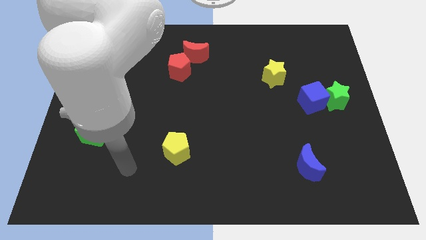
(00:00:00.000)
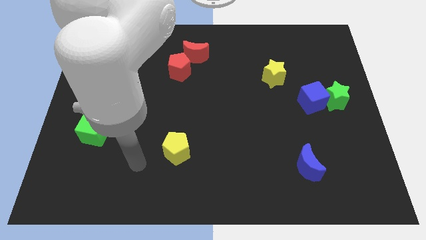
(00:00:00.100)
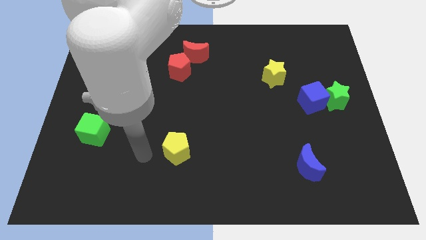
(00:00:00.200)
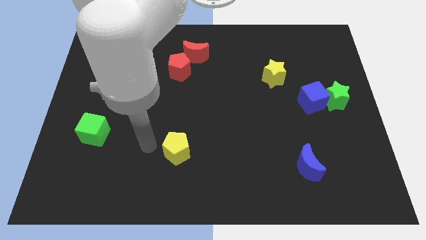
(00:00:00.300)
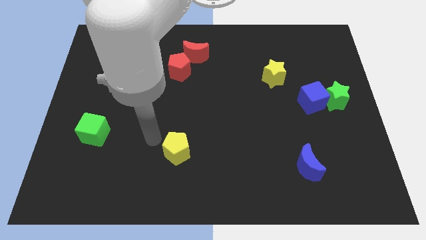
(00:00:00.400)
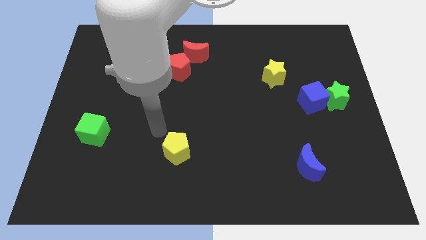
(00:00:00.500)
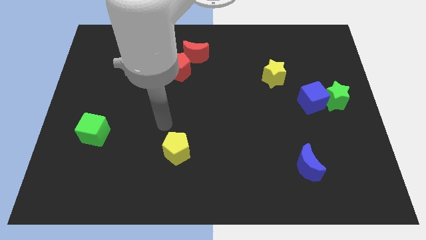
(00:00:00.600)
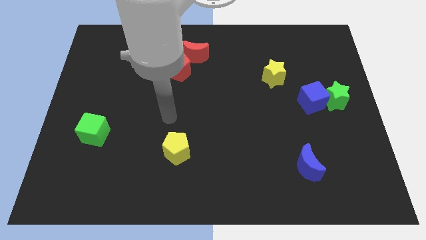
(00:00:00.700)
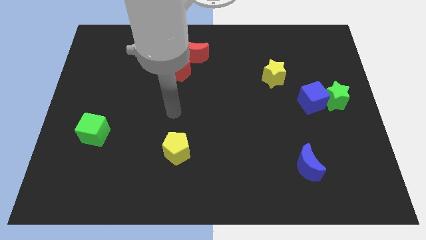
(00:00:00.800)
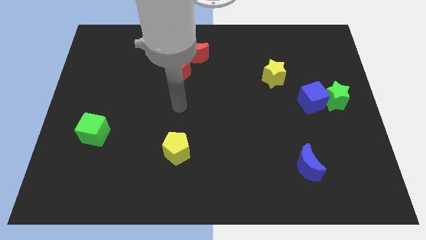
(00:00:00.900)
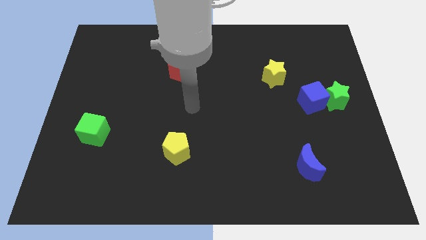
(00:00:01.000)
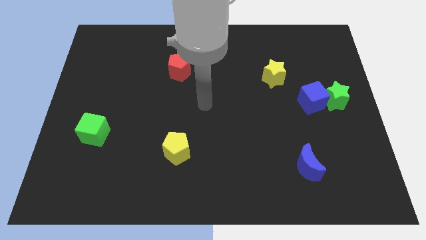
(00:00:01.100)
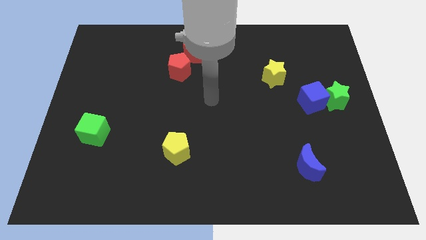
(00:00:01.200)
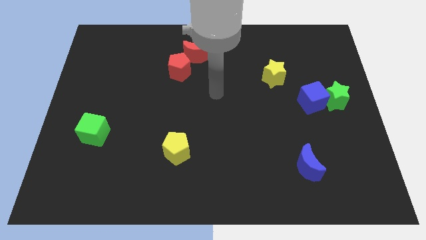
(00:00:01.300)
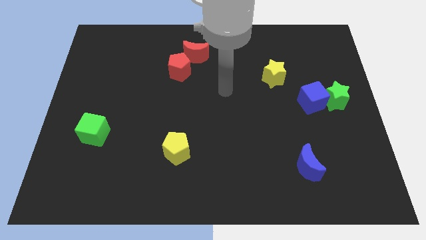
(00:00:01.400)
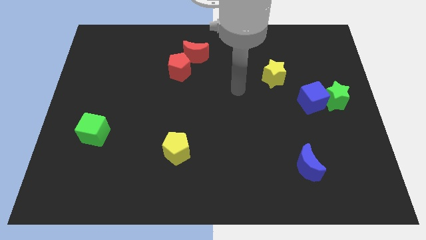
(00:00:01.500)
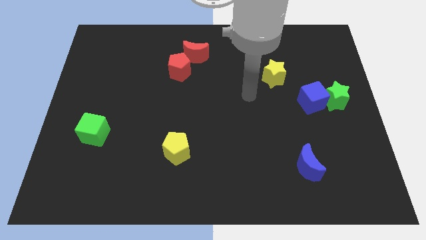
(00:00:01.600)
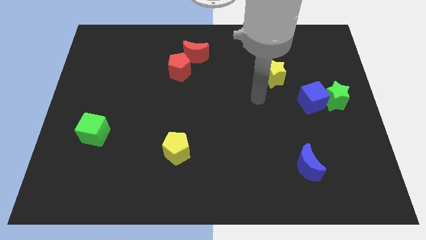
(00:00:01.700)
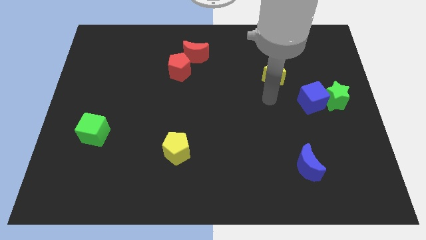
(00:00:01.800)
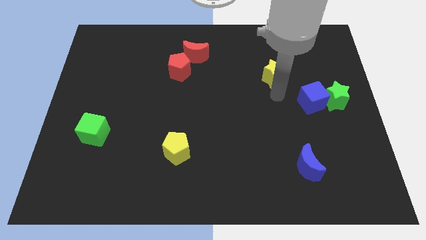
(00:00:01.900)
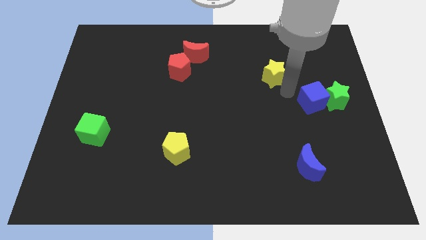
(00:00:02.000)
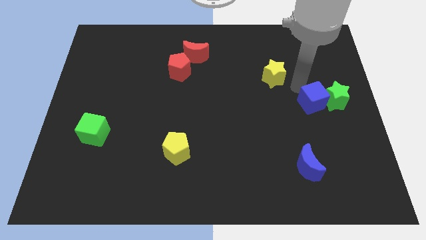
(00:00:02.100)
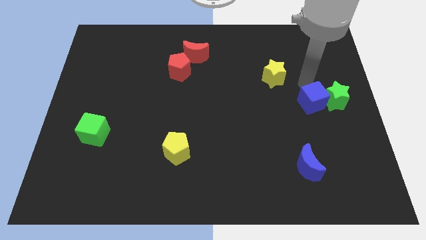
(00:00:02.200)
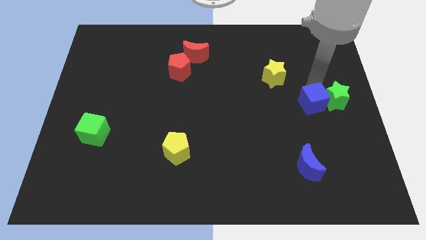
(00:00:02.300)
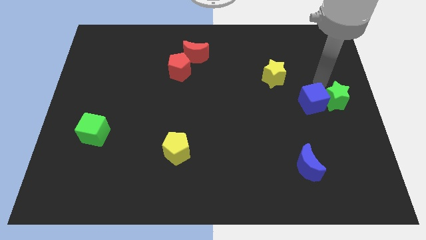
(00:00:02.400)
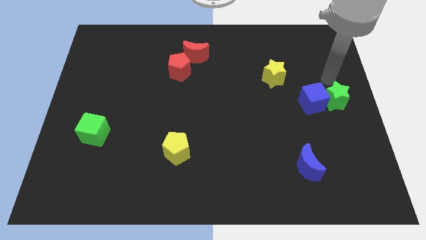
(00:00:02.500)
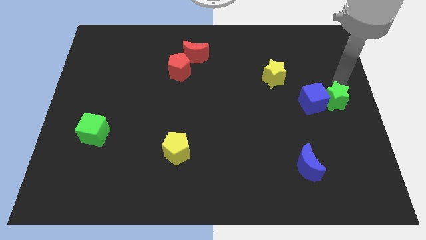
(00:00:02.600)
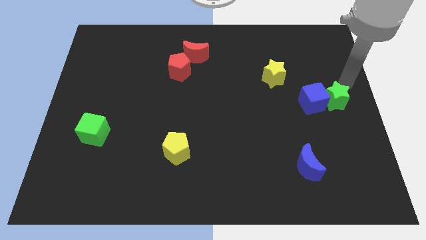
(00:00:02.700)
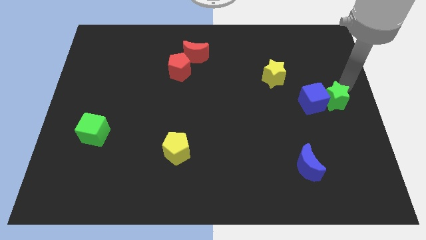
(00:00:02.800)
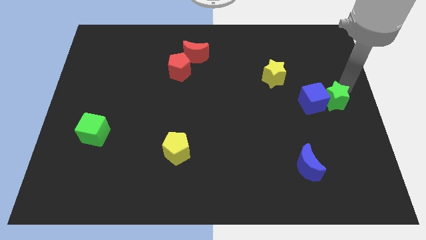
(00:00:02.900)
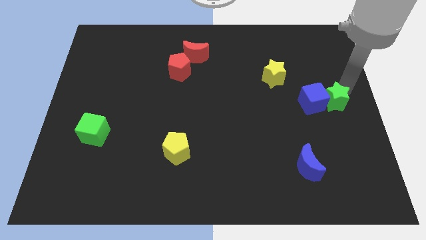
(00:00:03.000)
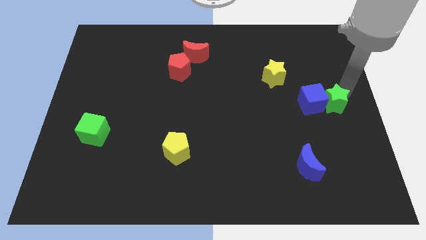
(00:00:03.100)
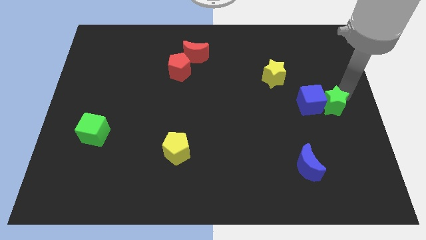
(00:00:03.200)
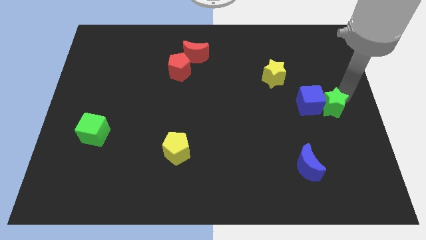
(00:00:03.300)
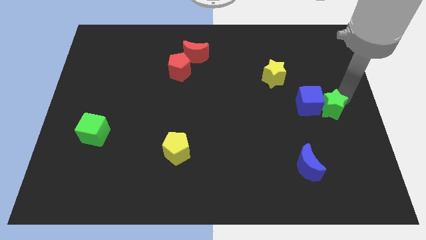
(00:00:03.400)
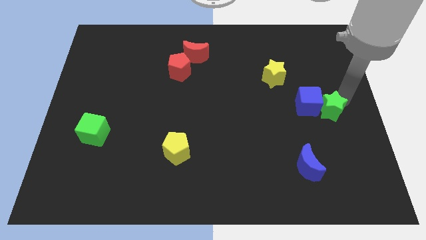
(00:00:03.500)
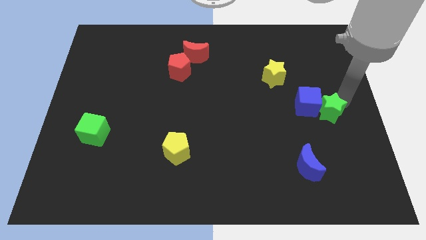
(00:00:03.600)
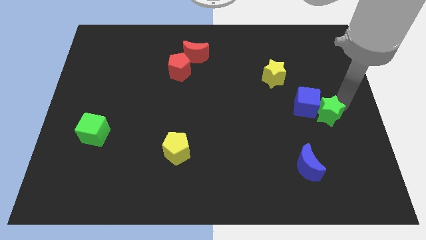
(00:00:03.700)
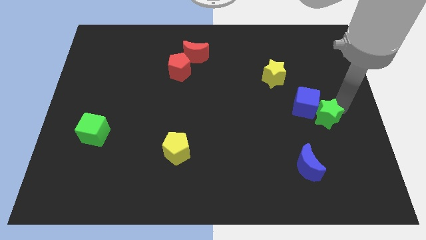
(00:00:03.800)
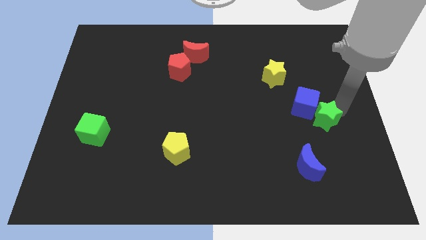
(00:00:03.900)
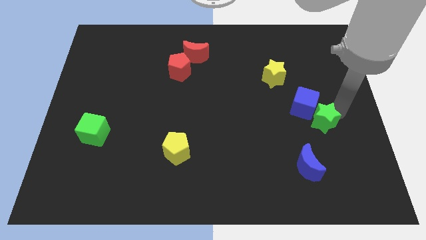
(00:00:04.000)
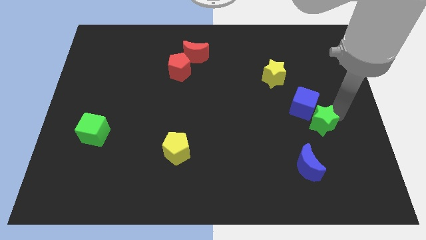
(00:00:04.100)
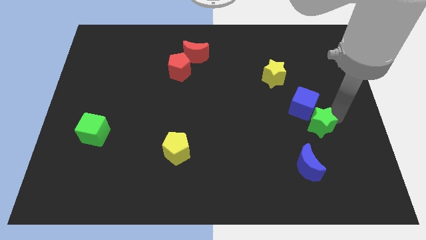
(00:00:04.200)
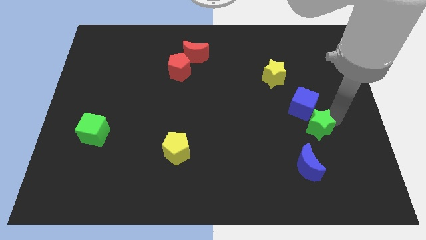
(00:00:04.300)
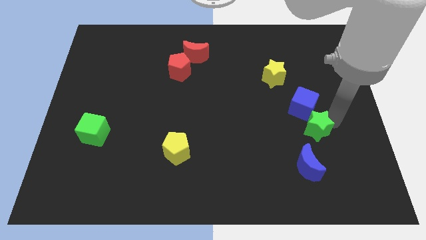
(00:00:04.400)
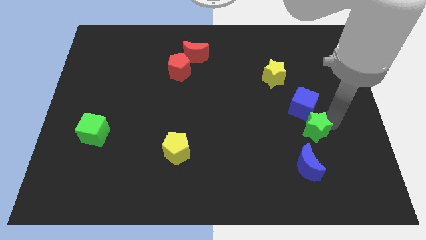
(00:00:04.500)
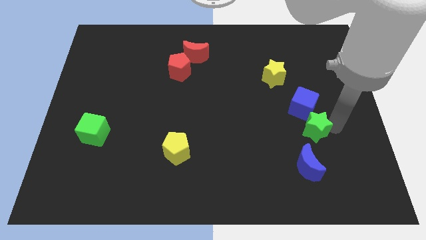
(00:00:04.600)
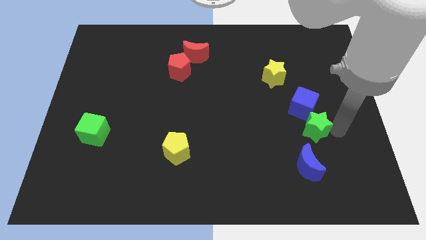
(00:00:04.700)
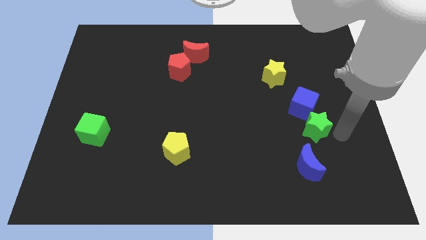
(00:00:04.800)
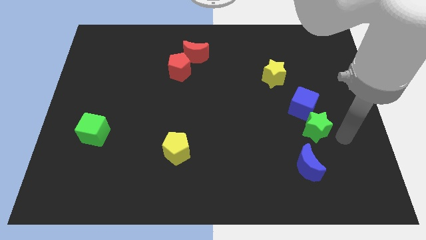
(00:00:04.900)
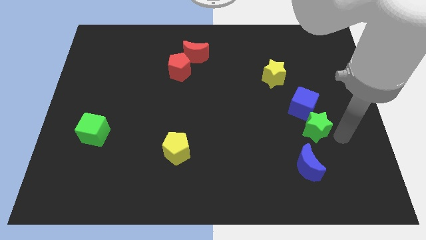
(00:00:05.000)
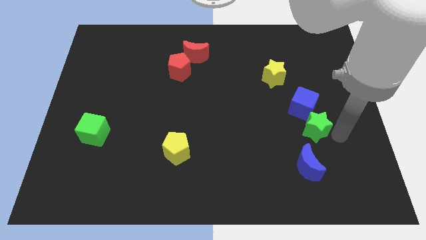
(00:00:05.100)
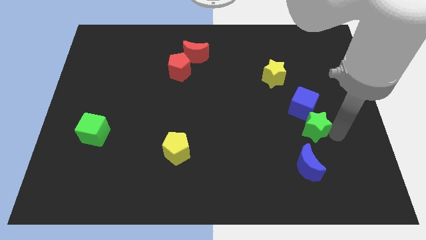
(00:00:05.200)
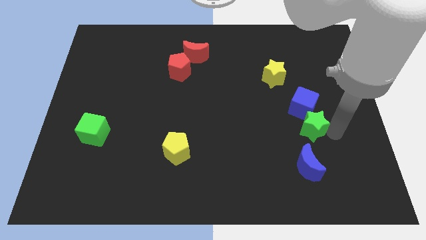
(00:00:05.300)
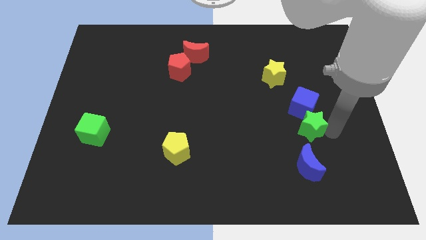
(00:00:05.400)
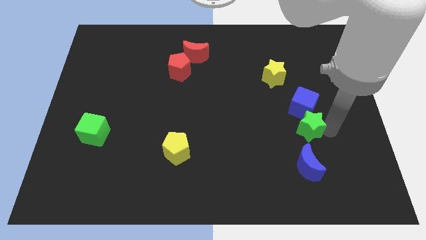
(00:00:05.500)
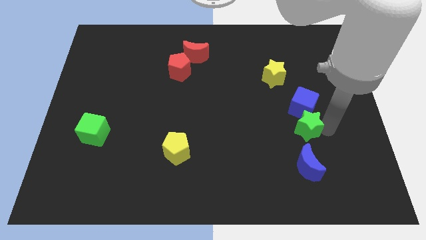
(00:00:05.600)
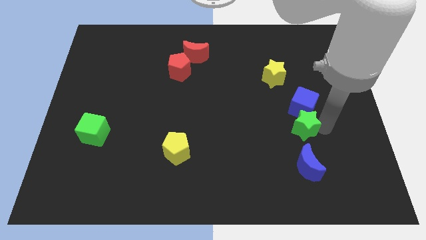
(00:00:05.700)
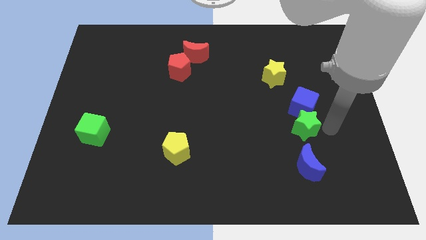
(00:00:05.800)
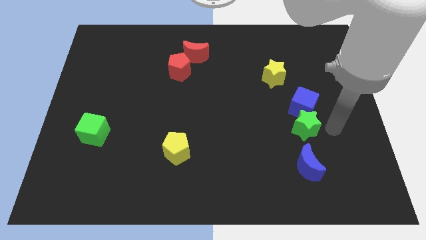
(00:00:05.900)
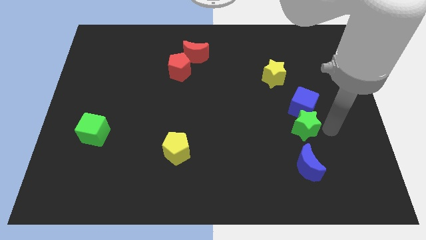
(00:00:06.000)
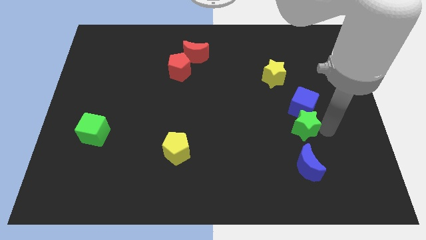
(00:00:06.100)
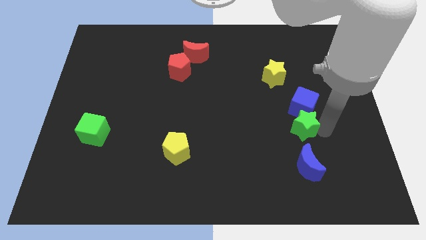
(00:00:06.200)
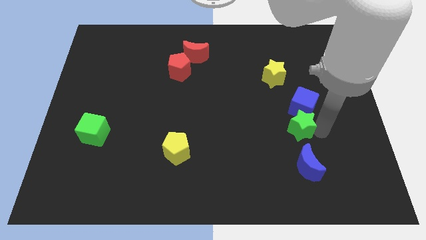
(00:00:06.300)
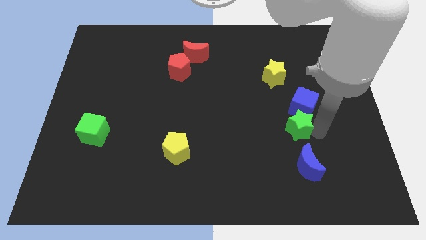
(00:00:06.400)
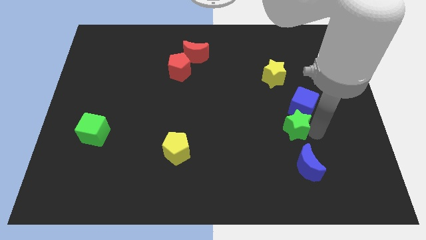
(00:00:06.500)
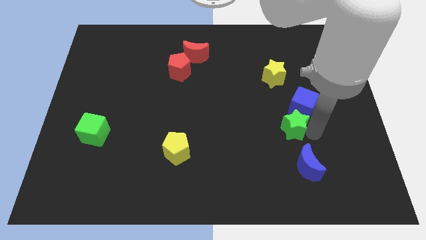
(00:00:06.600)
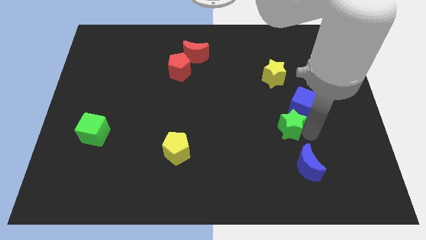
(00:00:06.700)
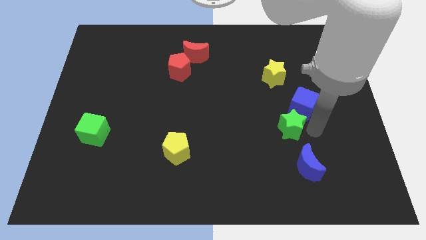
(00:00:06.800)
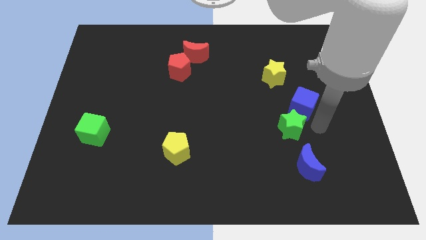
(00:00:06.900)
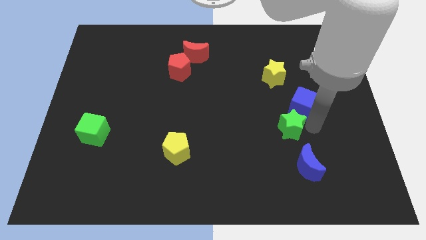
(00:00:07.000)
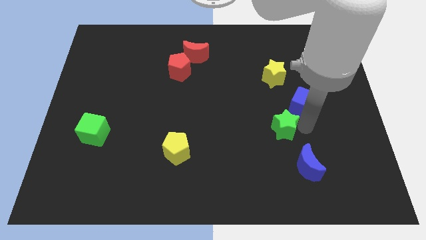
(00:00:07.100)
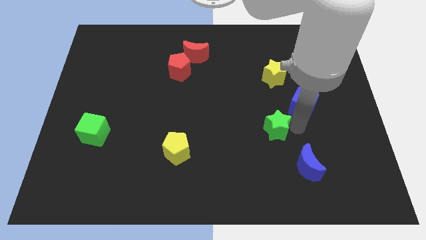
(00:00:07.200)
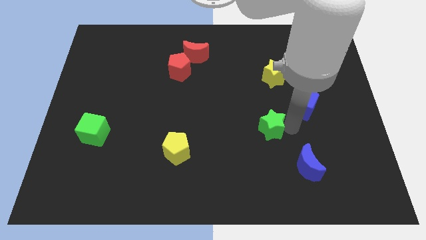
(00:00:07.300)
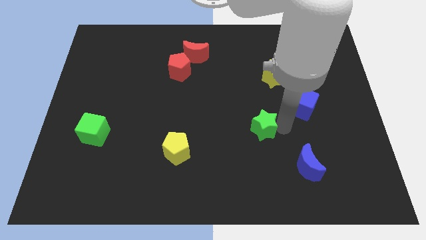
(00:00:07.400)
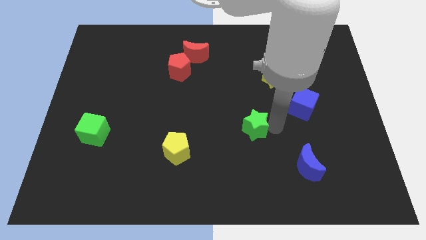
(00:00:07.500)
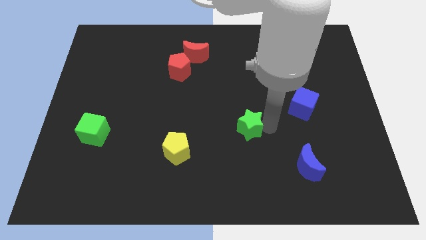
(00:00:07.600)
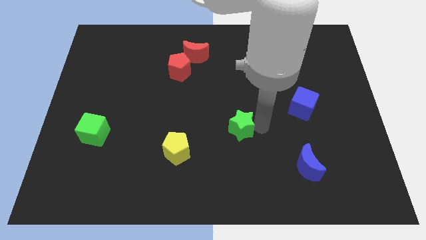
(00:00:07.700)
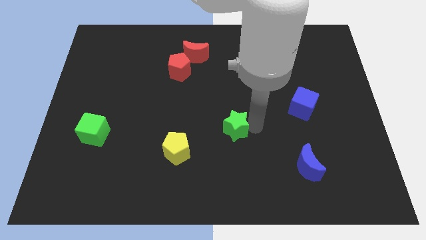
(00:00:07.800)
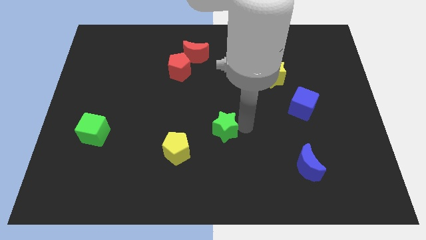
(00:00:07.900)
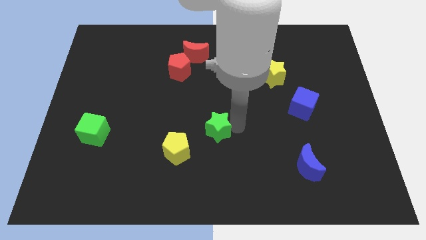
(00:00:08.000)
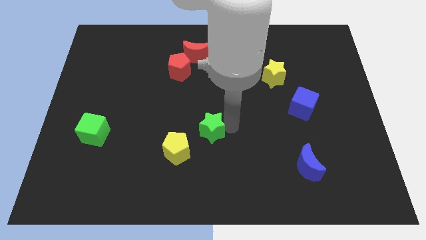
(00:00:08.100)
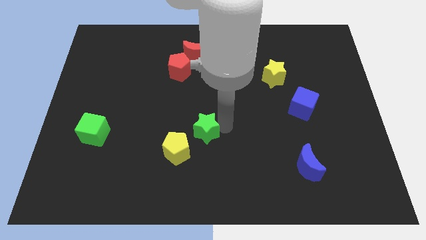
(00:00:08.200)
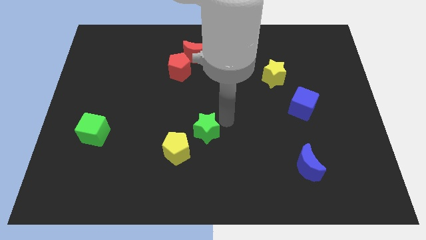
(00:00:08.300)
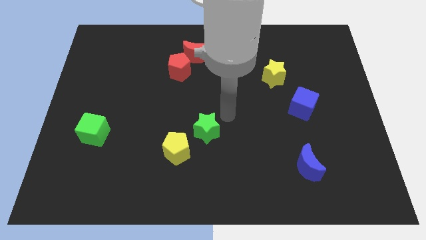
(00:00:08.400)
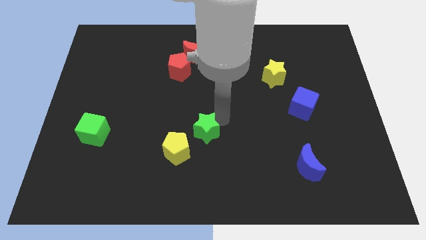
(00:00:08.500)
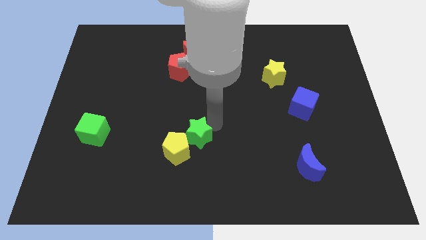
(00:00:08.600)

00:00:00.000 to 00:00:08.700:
put the green star next to the yellow pentagon
